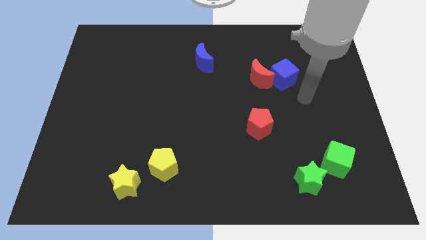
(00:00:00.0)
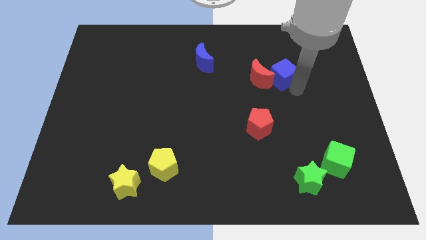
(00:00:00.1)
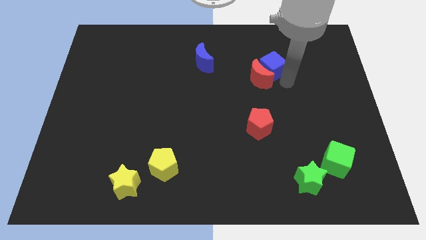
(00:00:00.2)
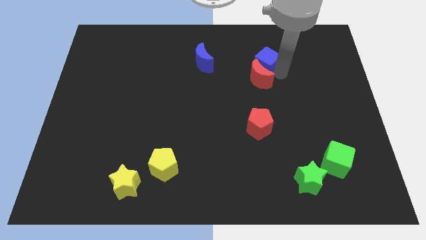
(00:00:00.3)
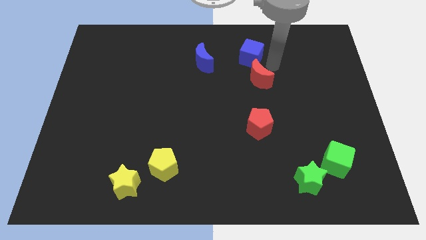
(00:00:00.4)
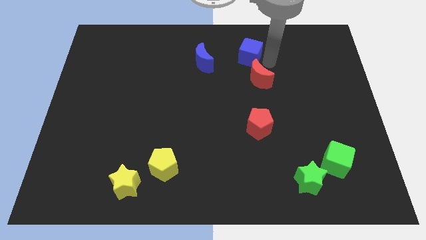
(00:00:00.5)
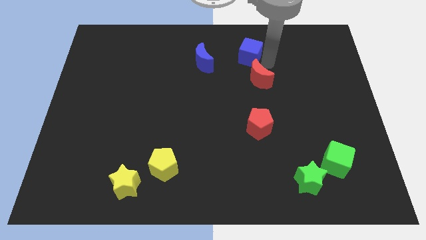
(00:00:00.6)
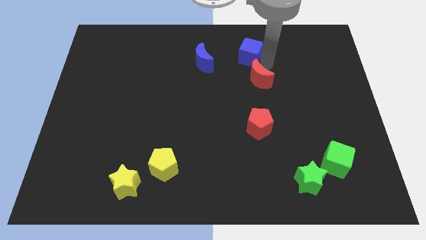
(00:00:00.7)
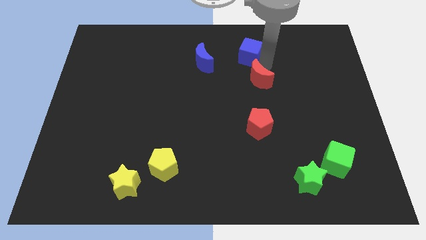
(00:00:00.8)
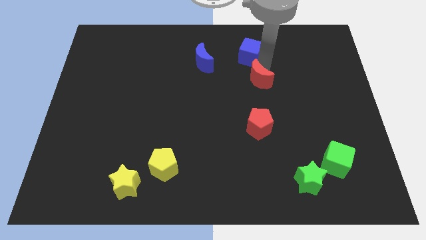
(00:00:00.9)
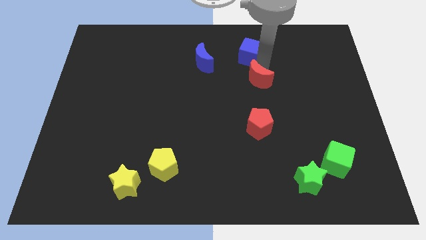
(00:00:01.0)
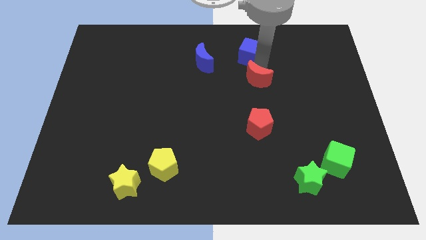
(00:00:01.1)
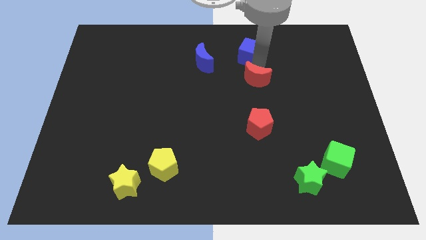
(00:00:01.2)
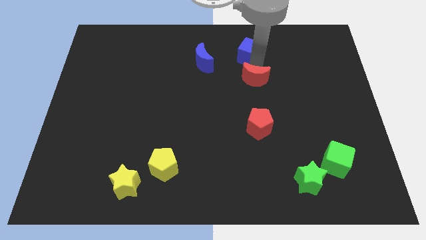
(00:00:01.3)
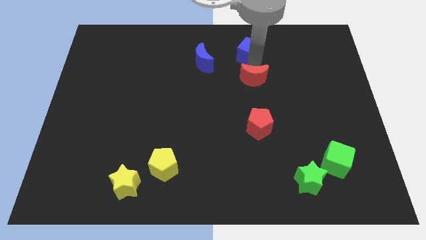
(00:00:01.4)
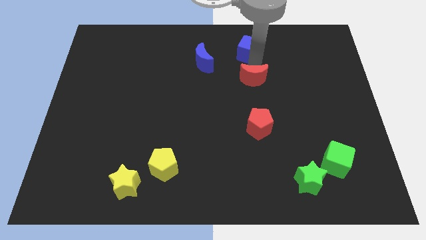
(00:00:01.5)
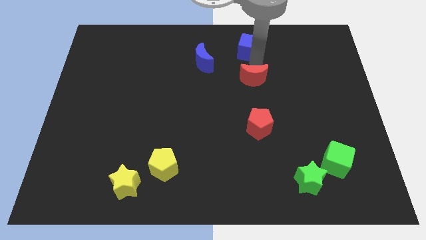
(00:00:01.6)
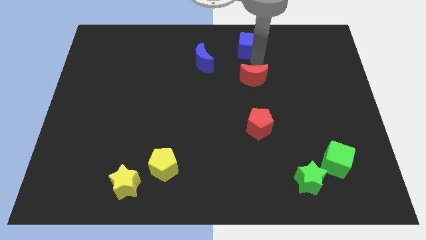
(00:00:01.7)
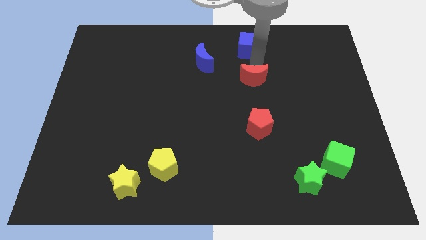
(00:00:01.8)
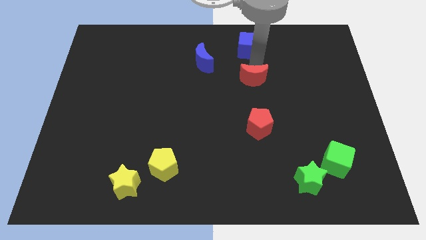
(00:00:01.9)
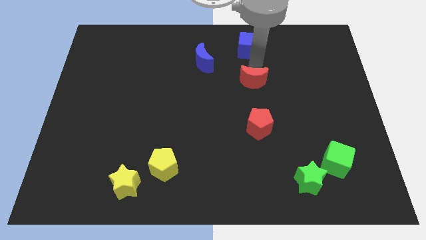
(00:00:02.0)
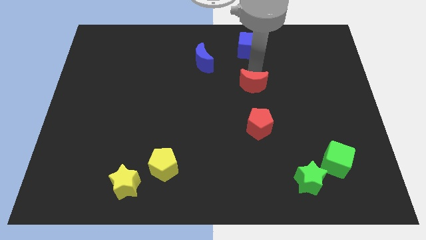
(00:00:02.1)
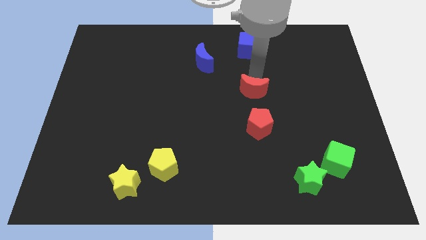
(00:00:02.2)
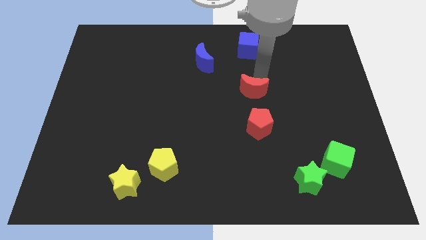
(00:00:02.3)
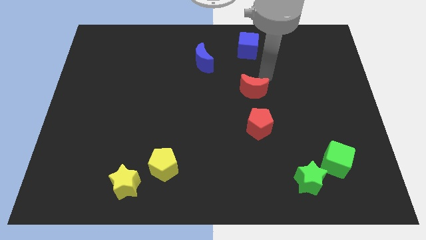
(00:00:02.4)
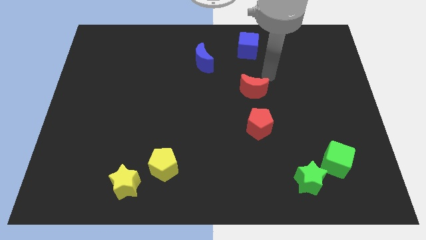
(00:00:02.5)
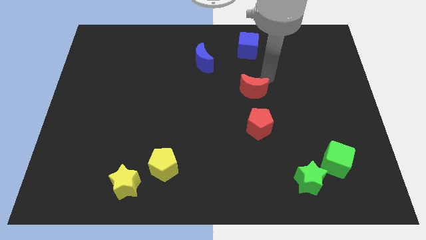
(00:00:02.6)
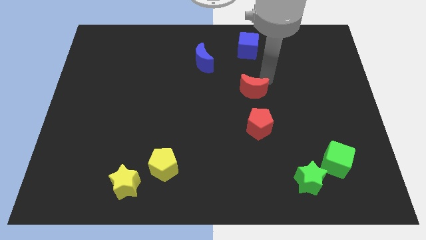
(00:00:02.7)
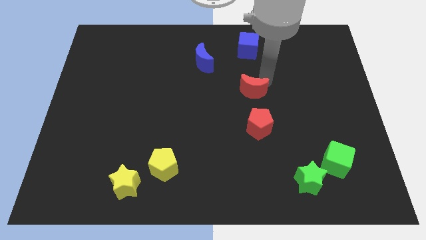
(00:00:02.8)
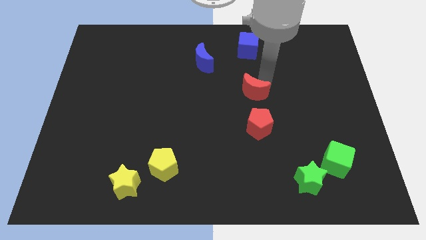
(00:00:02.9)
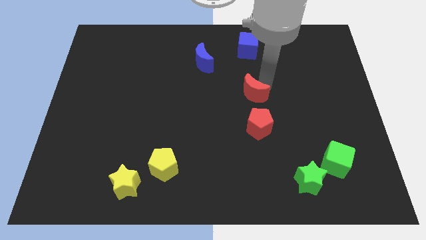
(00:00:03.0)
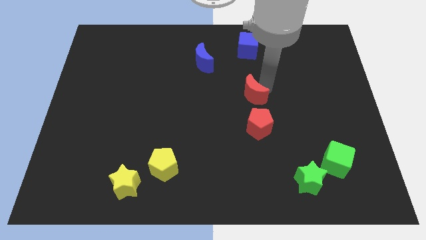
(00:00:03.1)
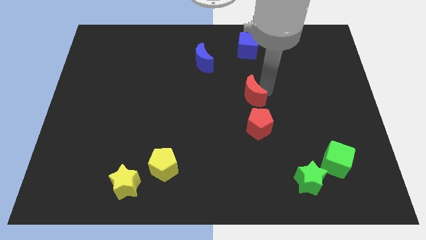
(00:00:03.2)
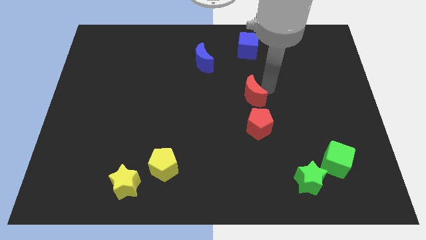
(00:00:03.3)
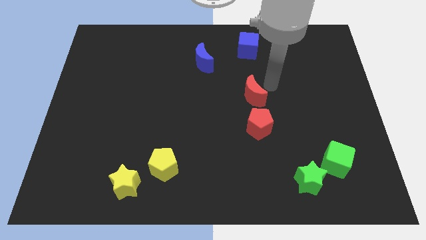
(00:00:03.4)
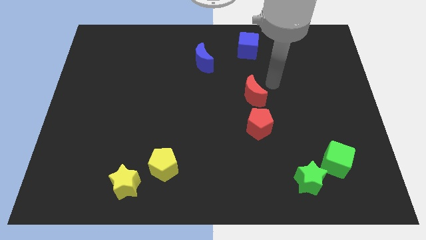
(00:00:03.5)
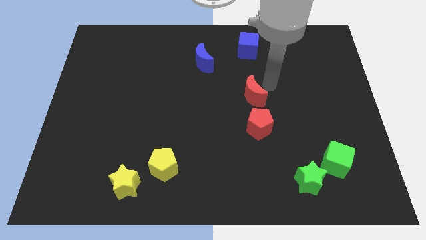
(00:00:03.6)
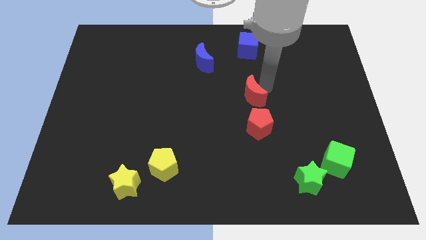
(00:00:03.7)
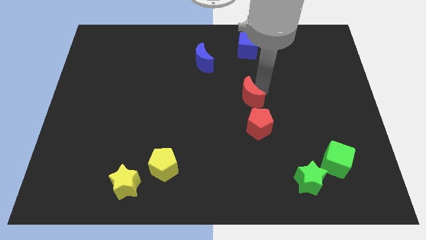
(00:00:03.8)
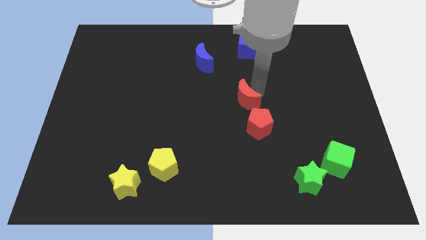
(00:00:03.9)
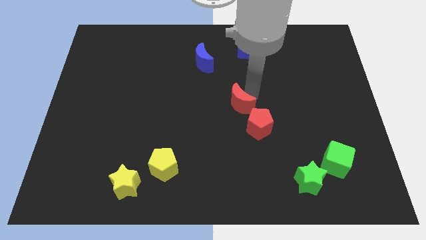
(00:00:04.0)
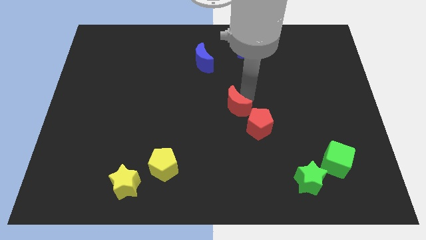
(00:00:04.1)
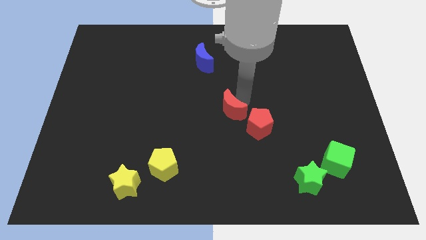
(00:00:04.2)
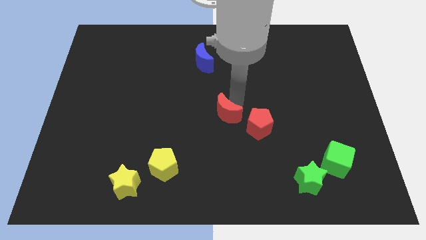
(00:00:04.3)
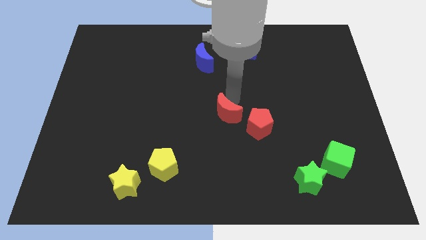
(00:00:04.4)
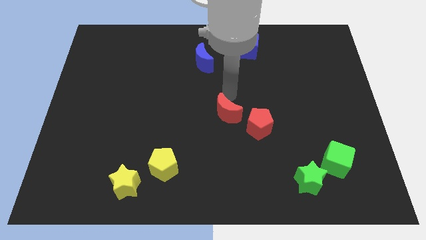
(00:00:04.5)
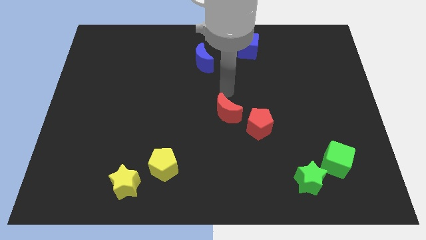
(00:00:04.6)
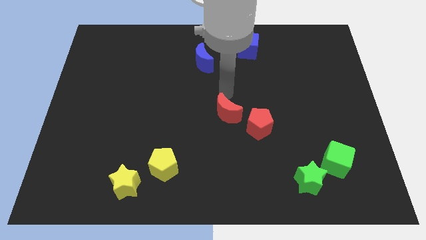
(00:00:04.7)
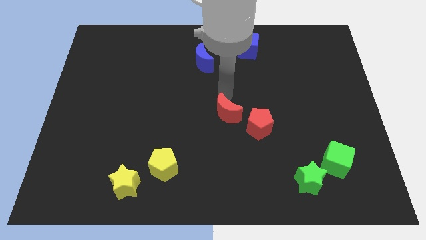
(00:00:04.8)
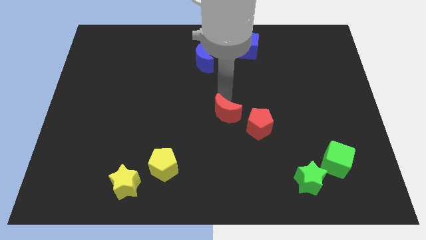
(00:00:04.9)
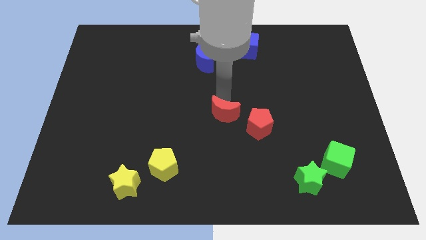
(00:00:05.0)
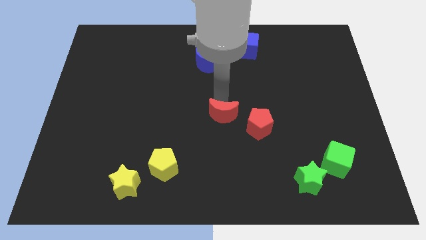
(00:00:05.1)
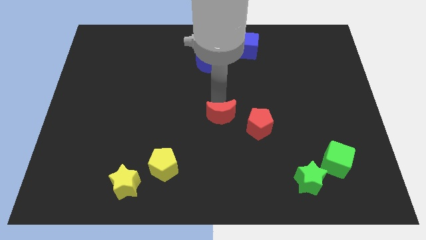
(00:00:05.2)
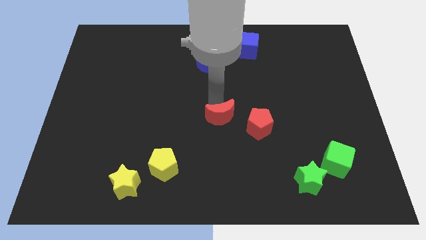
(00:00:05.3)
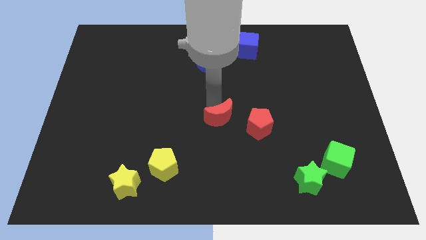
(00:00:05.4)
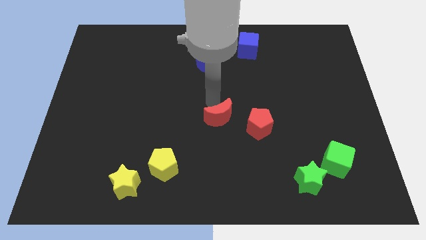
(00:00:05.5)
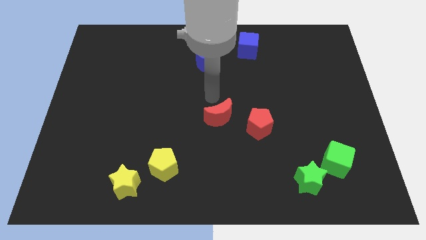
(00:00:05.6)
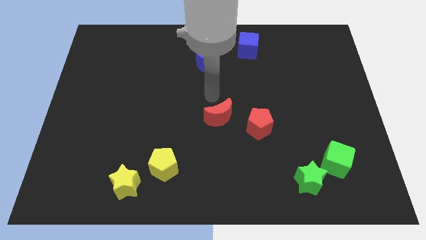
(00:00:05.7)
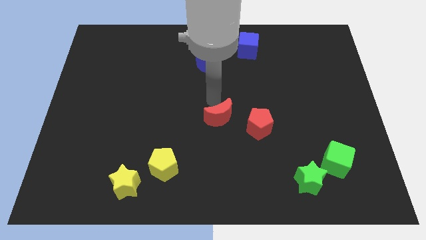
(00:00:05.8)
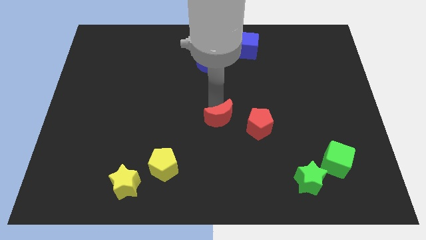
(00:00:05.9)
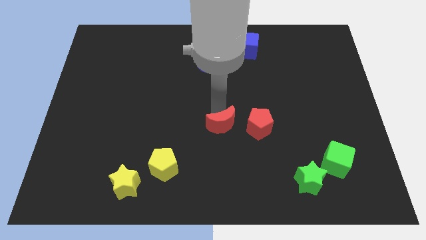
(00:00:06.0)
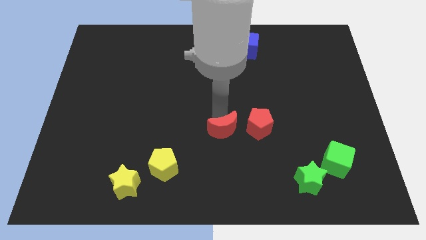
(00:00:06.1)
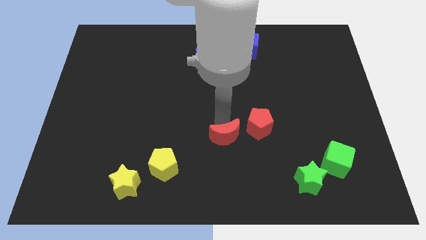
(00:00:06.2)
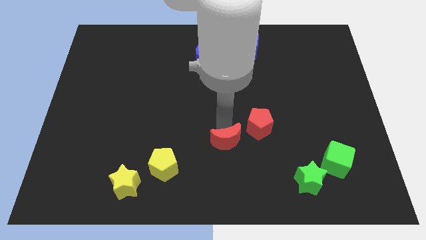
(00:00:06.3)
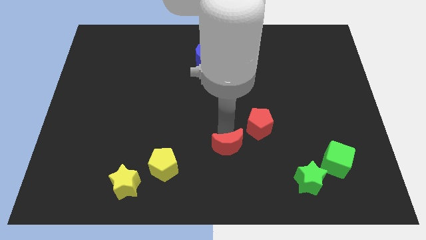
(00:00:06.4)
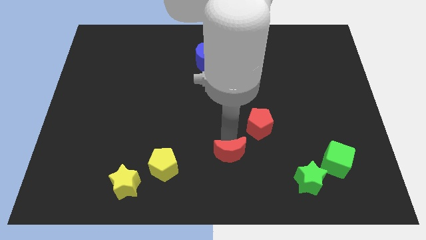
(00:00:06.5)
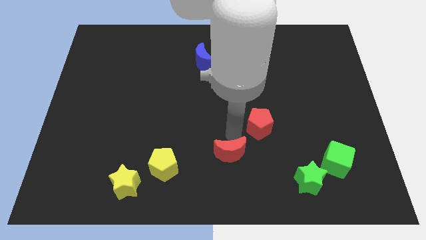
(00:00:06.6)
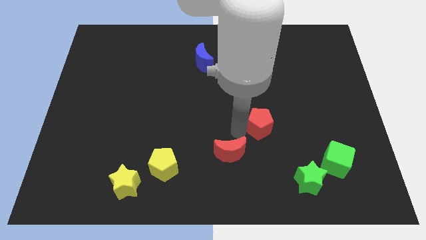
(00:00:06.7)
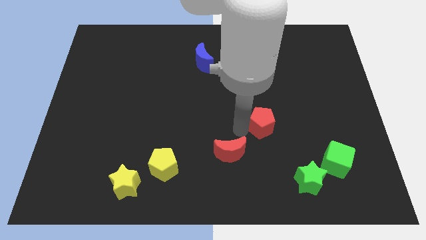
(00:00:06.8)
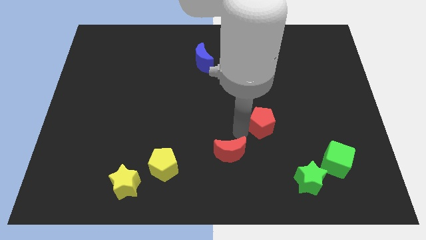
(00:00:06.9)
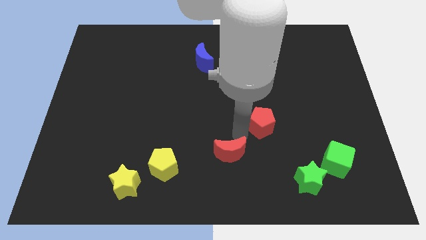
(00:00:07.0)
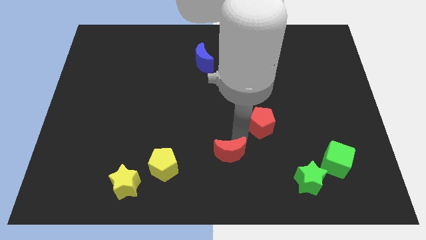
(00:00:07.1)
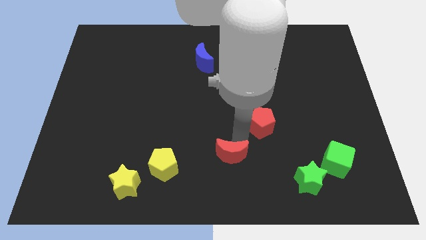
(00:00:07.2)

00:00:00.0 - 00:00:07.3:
push the red moon to the bottom side
